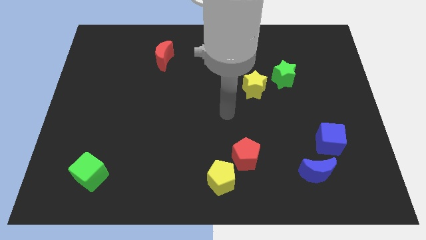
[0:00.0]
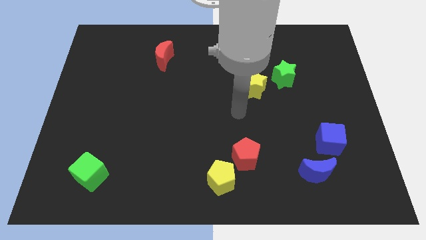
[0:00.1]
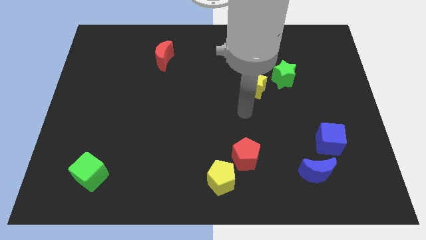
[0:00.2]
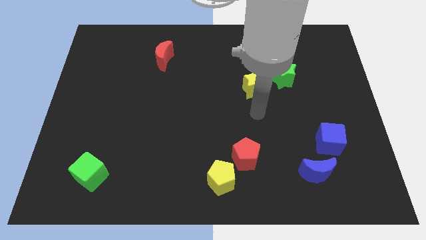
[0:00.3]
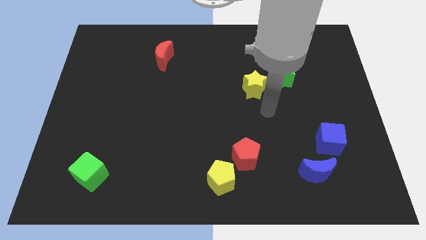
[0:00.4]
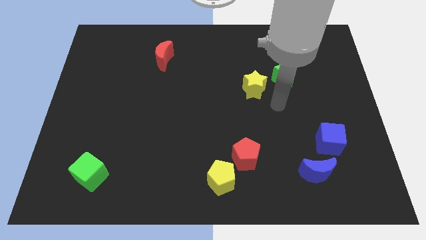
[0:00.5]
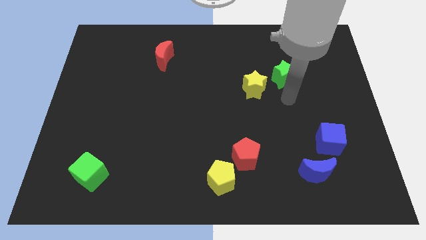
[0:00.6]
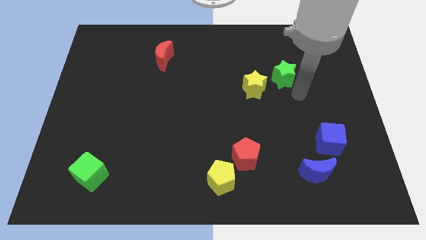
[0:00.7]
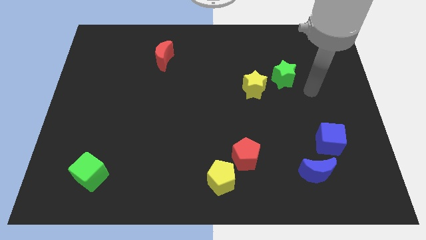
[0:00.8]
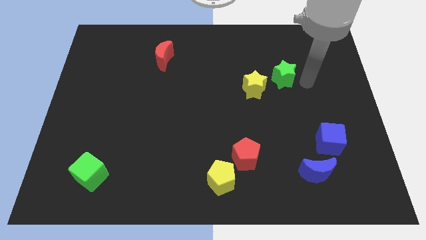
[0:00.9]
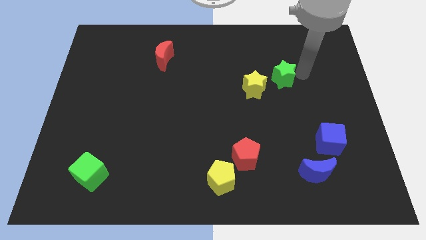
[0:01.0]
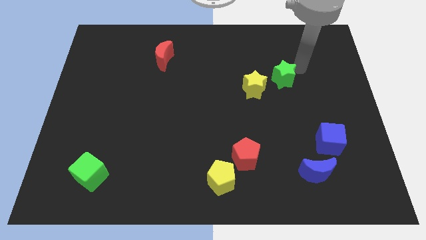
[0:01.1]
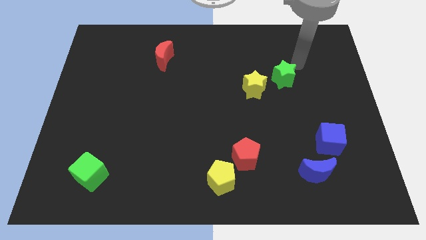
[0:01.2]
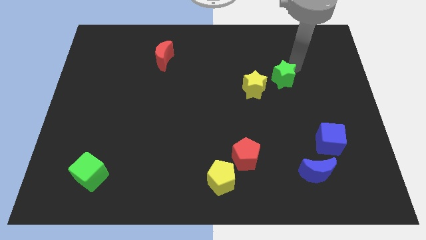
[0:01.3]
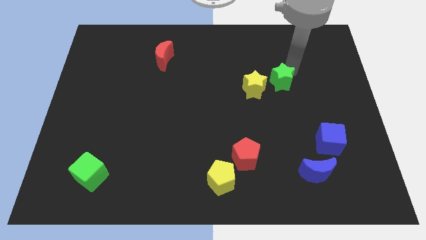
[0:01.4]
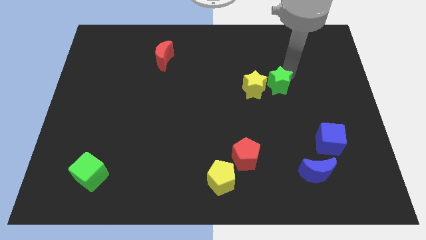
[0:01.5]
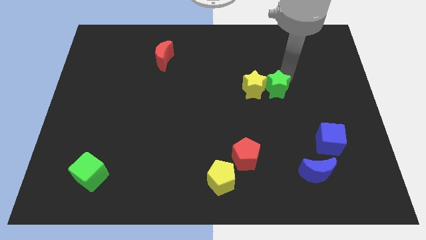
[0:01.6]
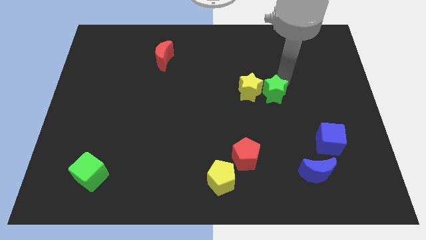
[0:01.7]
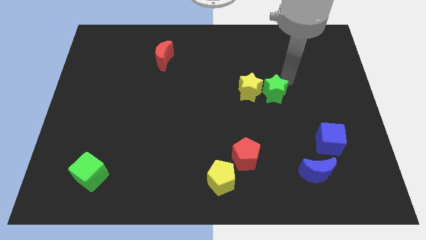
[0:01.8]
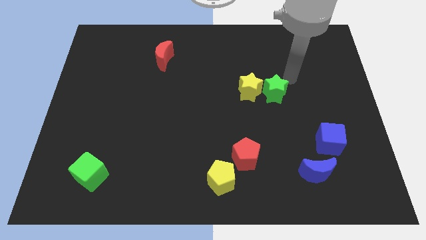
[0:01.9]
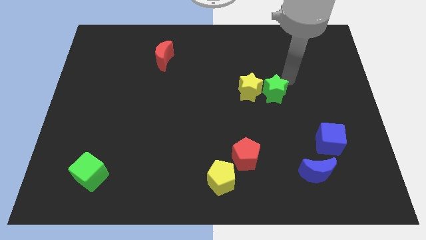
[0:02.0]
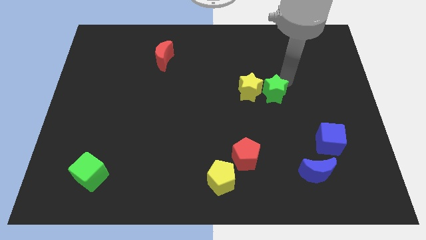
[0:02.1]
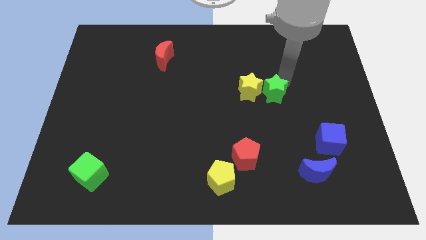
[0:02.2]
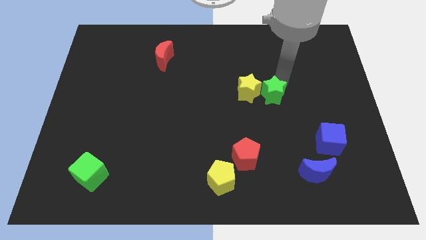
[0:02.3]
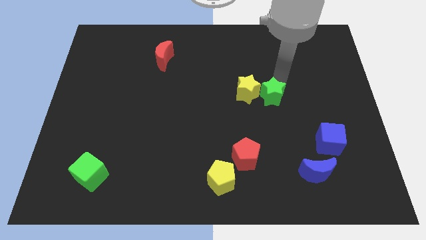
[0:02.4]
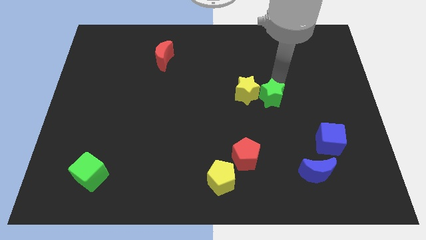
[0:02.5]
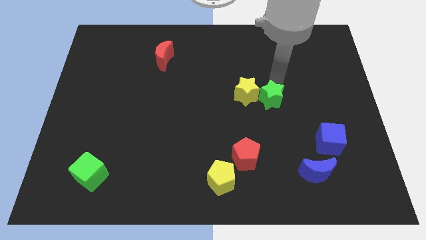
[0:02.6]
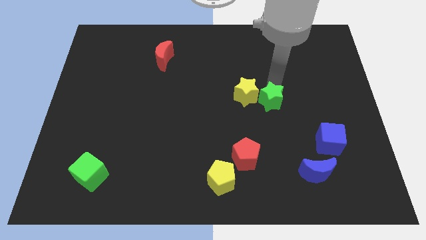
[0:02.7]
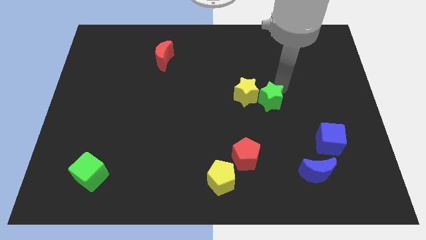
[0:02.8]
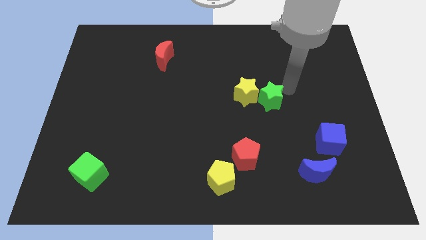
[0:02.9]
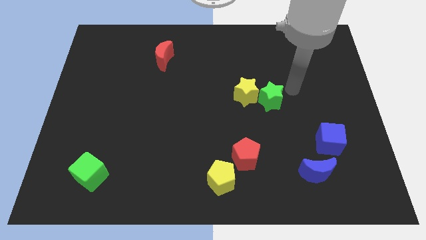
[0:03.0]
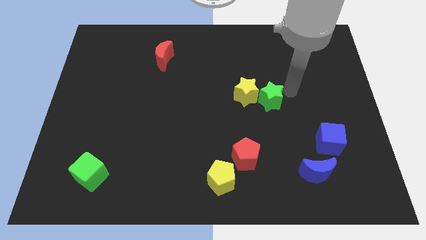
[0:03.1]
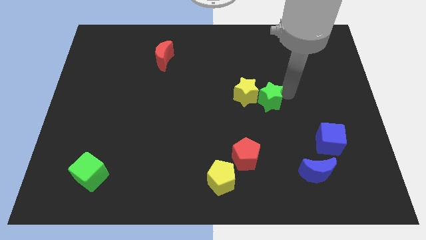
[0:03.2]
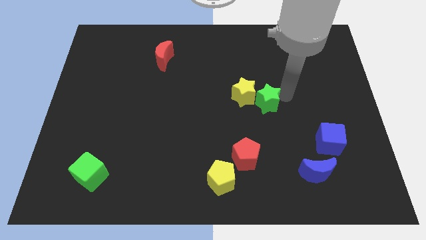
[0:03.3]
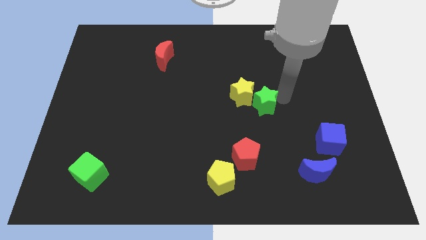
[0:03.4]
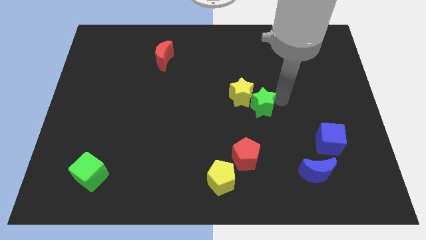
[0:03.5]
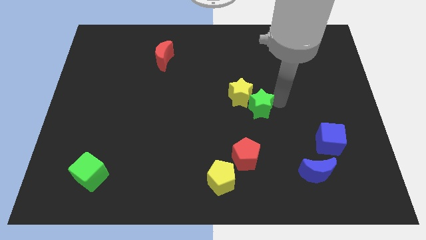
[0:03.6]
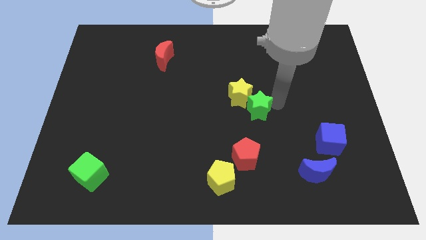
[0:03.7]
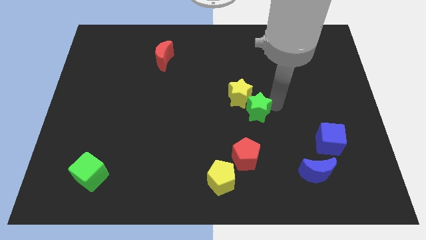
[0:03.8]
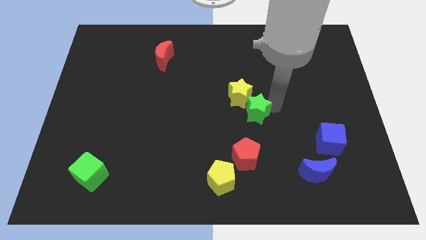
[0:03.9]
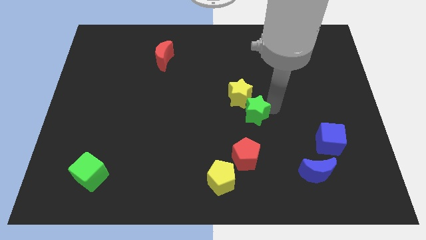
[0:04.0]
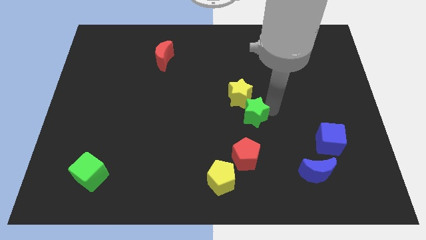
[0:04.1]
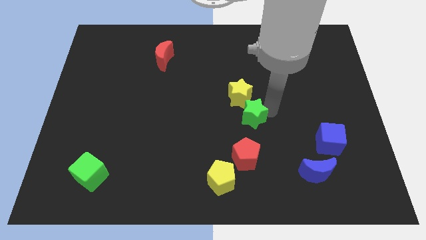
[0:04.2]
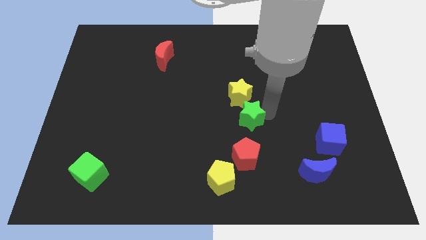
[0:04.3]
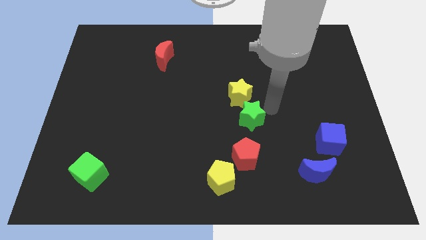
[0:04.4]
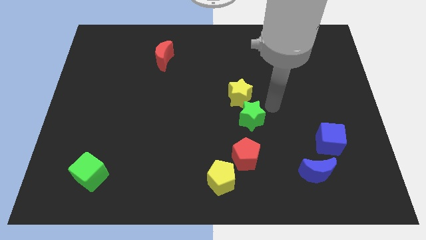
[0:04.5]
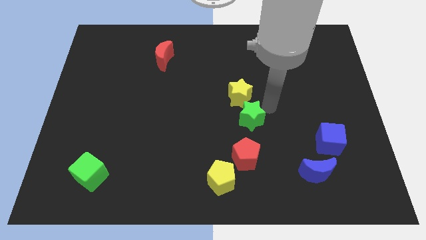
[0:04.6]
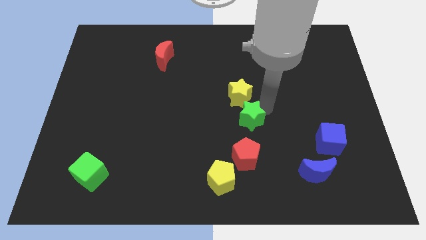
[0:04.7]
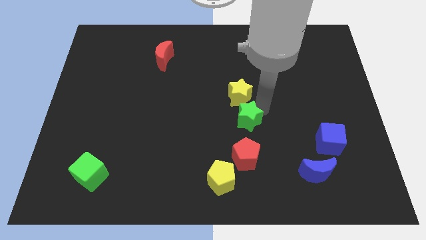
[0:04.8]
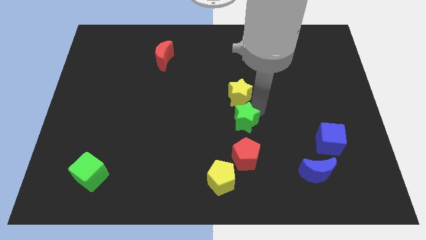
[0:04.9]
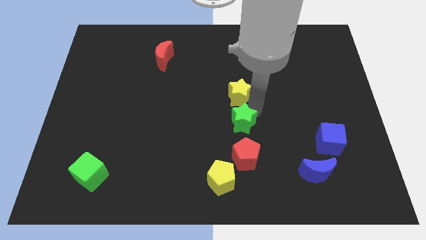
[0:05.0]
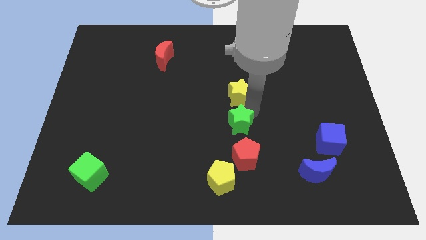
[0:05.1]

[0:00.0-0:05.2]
push the green star to the top side of the yellow pentagon

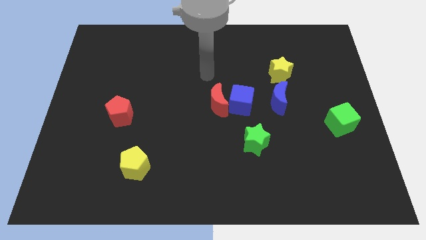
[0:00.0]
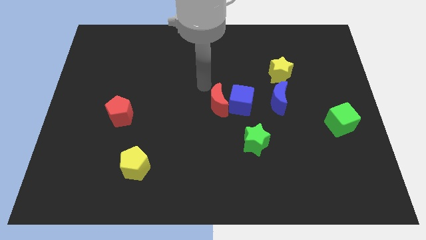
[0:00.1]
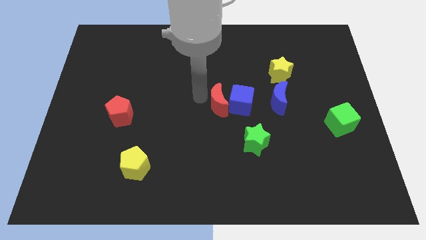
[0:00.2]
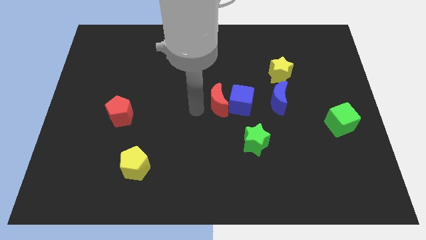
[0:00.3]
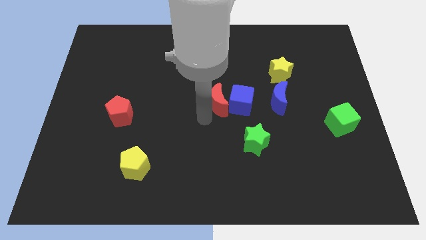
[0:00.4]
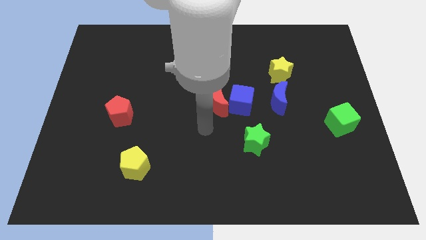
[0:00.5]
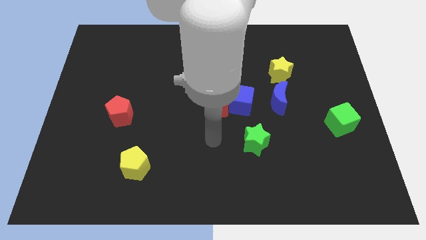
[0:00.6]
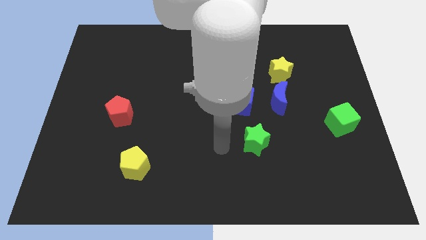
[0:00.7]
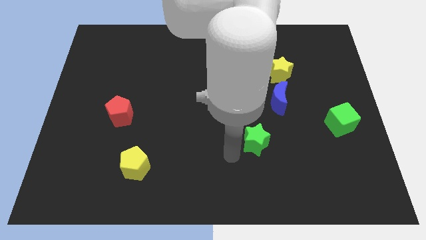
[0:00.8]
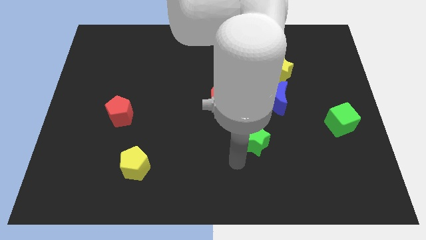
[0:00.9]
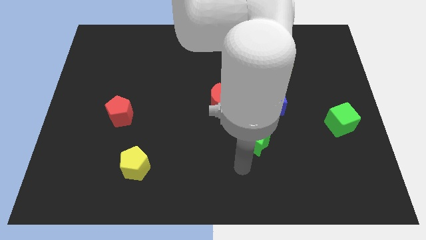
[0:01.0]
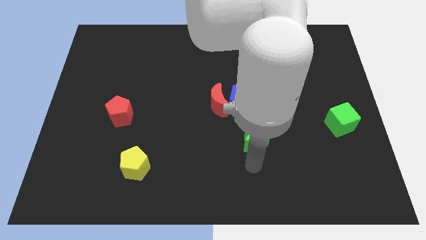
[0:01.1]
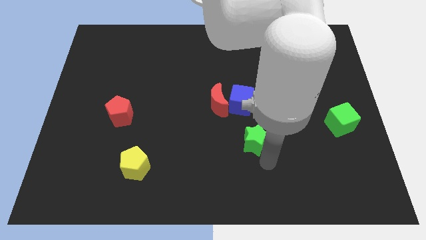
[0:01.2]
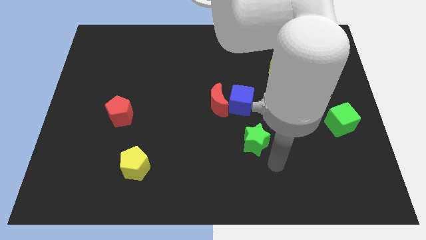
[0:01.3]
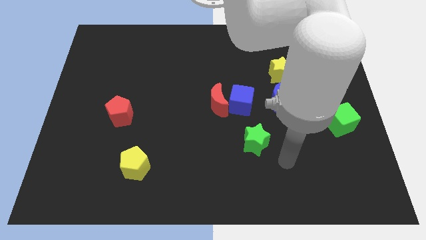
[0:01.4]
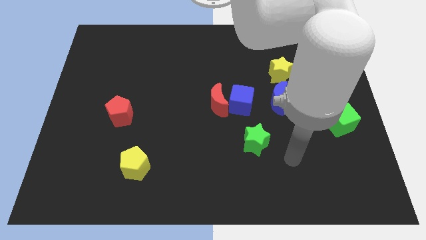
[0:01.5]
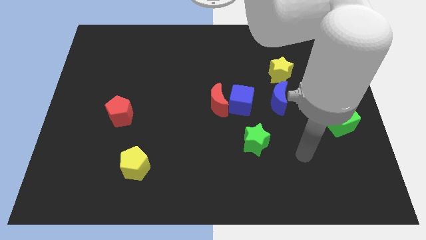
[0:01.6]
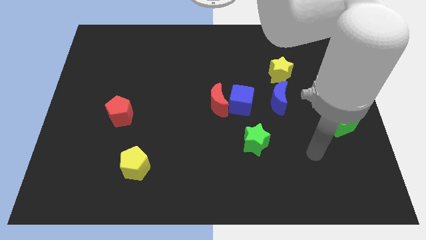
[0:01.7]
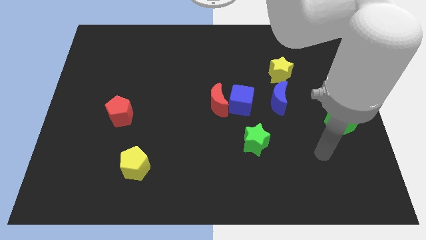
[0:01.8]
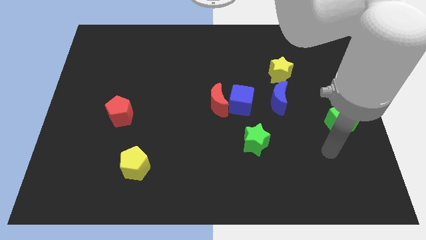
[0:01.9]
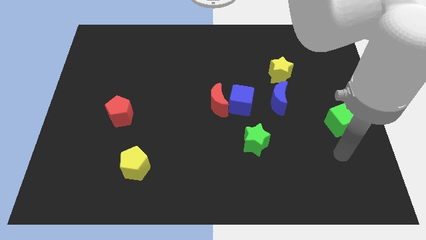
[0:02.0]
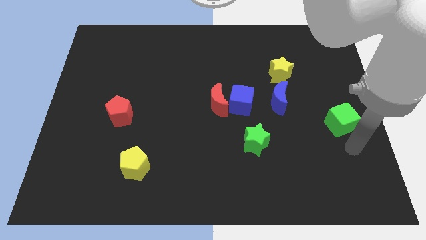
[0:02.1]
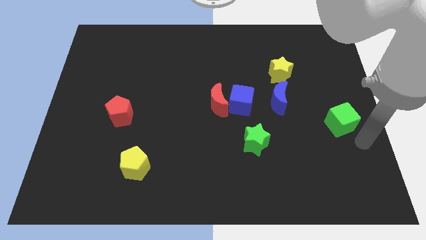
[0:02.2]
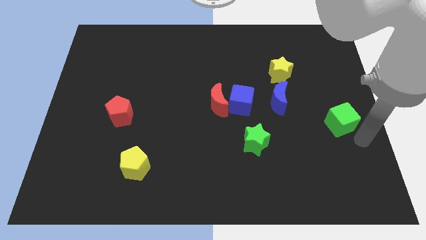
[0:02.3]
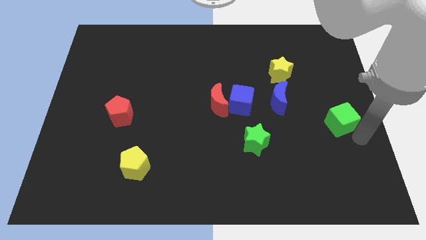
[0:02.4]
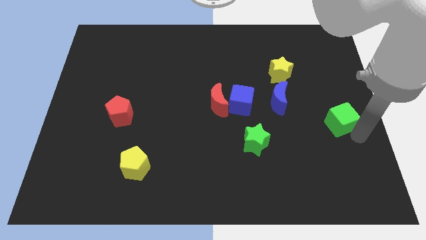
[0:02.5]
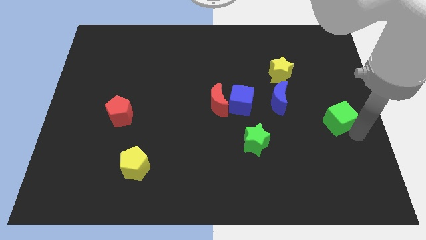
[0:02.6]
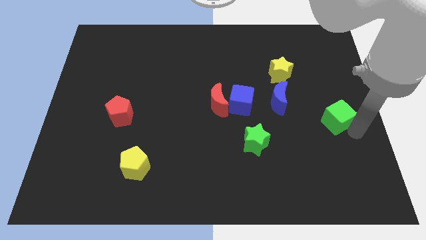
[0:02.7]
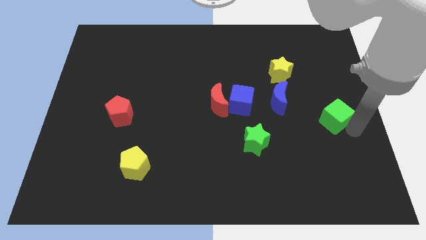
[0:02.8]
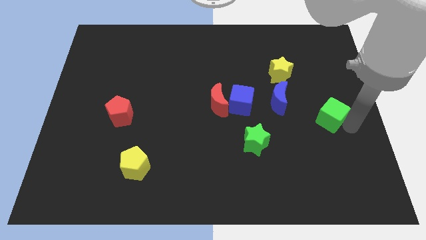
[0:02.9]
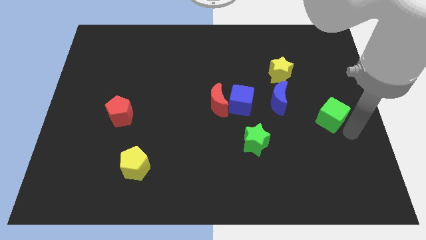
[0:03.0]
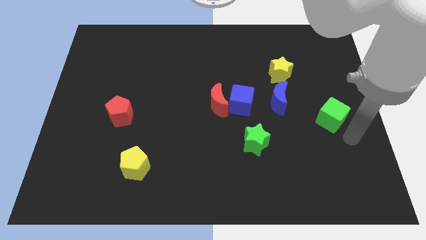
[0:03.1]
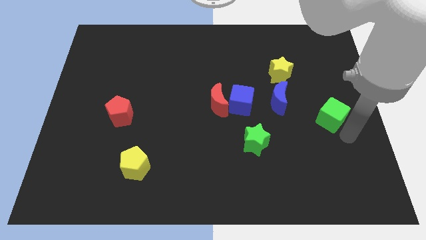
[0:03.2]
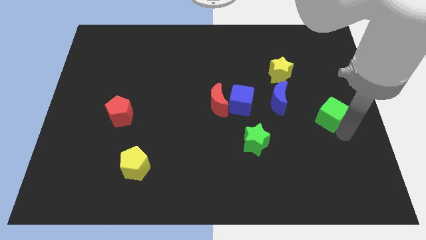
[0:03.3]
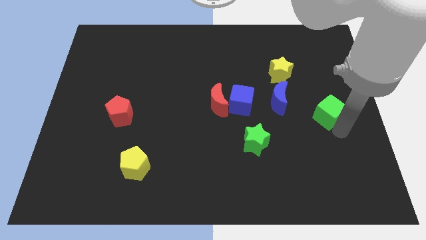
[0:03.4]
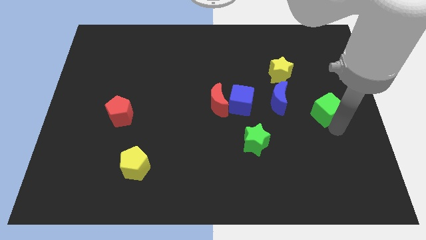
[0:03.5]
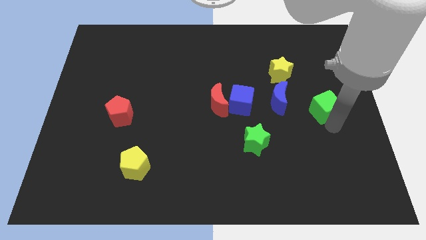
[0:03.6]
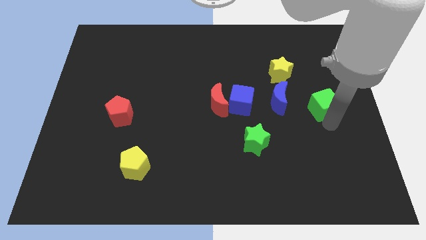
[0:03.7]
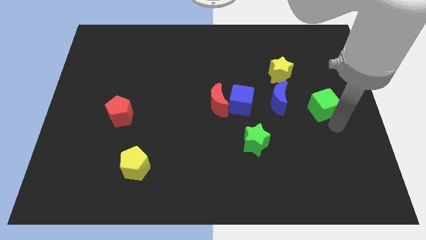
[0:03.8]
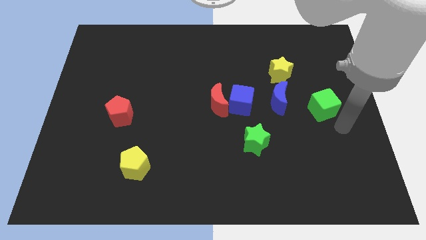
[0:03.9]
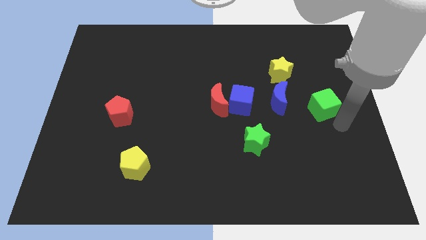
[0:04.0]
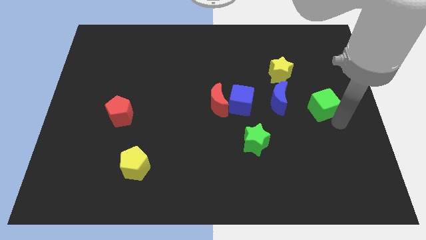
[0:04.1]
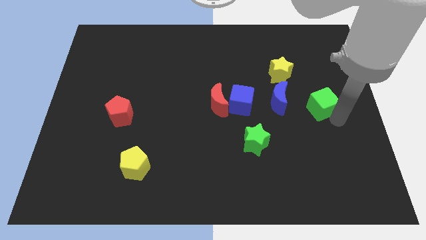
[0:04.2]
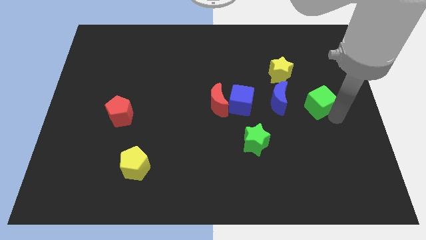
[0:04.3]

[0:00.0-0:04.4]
move the green cube to the bottom right of the yellow star
